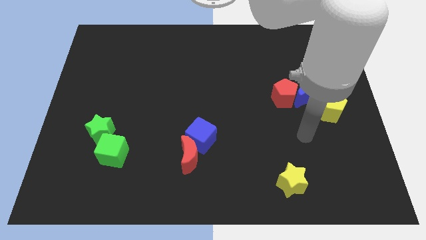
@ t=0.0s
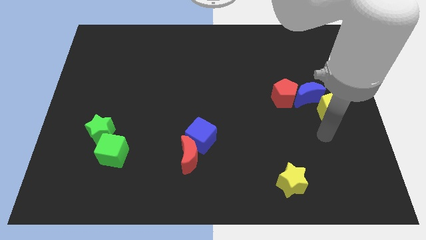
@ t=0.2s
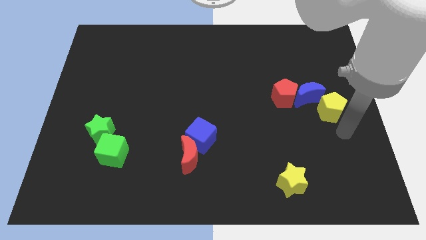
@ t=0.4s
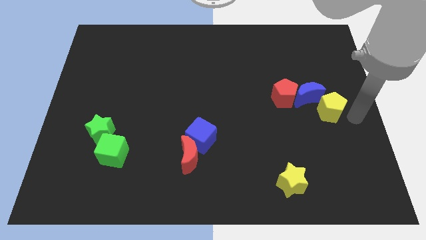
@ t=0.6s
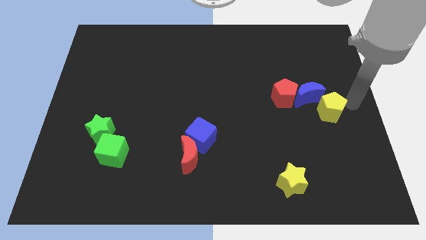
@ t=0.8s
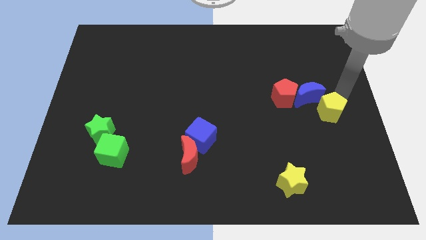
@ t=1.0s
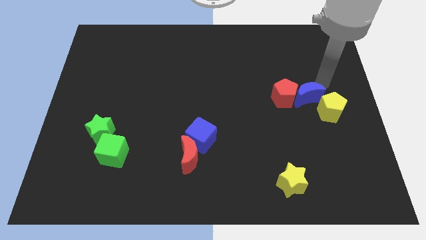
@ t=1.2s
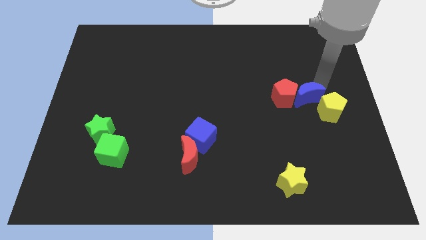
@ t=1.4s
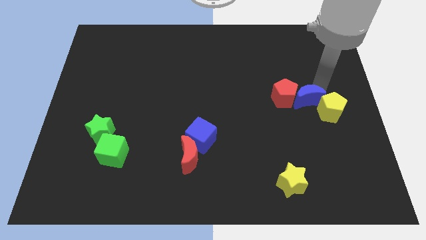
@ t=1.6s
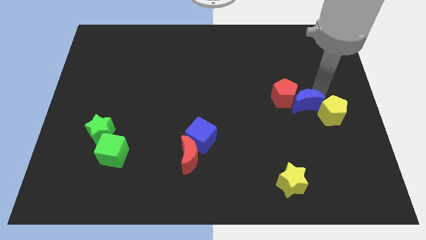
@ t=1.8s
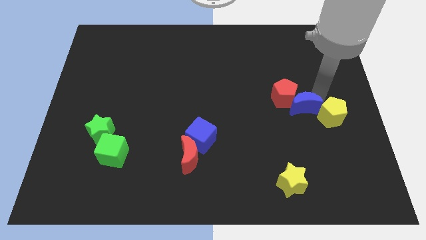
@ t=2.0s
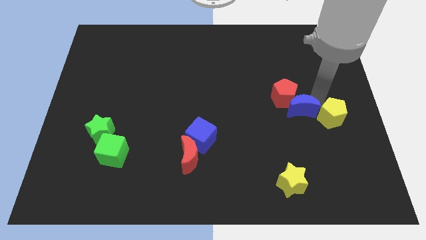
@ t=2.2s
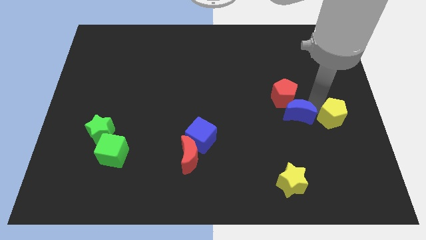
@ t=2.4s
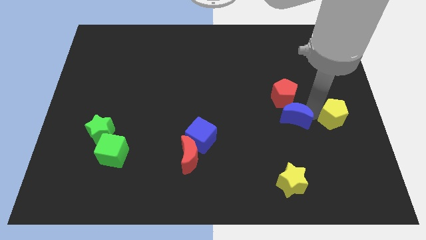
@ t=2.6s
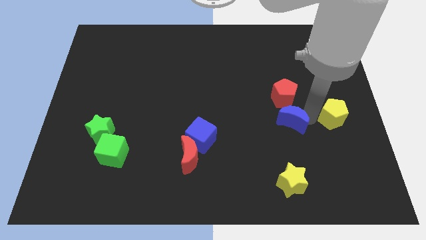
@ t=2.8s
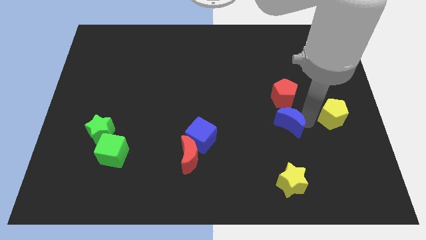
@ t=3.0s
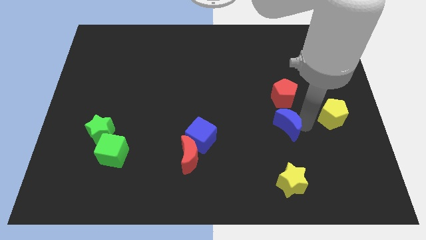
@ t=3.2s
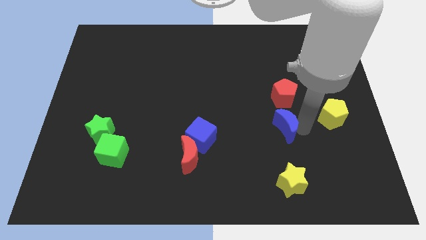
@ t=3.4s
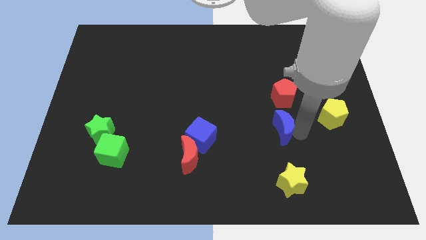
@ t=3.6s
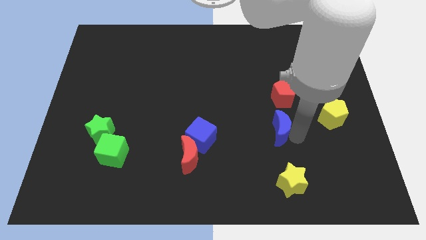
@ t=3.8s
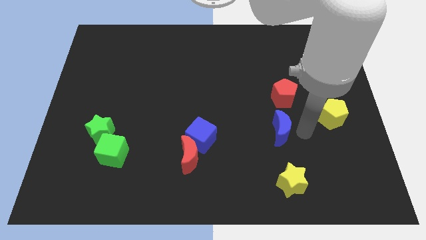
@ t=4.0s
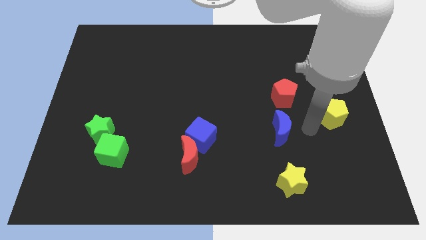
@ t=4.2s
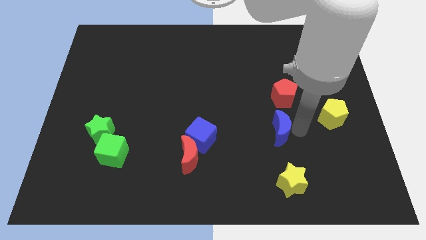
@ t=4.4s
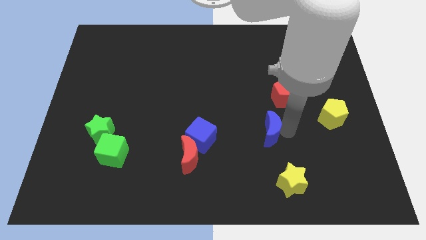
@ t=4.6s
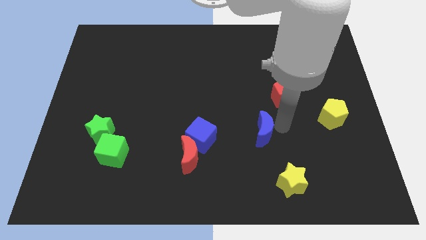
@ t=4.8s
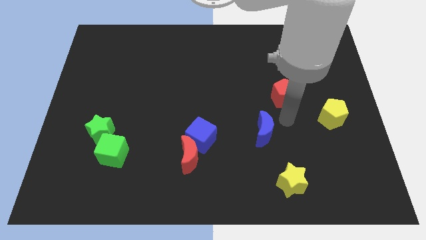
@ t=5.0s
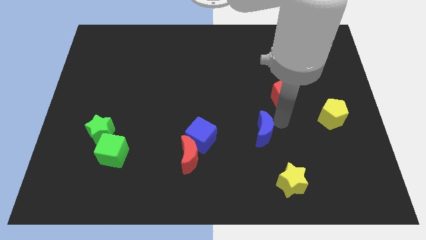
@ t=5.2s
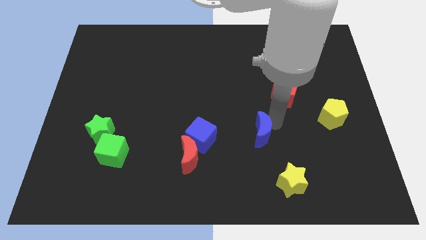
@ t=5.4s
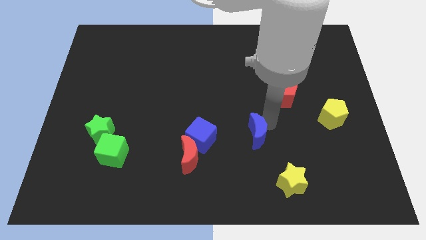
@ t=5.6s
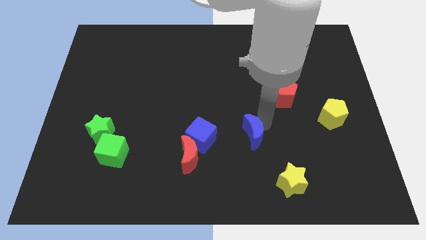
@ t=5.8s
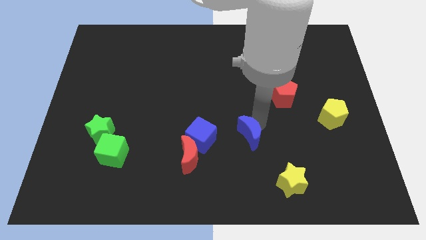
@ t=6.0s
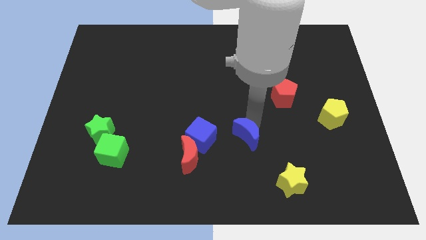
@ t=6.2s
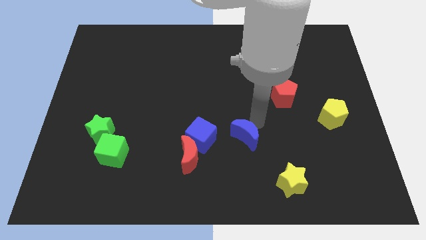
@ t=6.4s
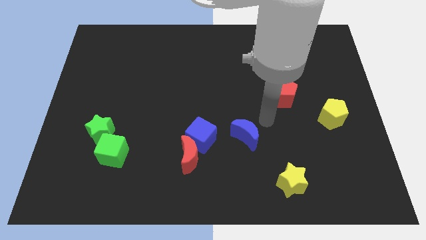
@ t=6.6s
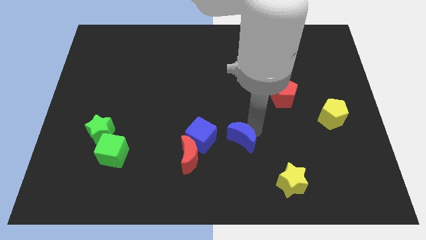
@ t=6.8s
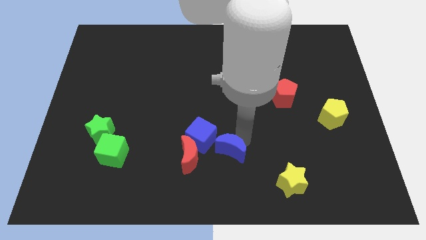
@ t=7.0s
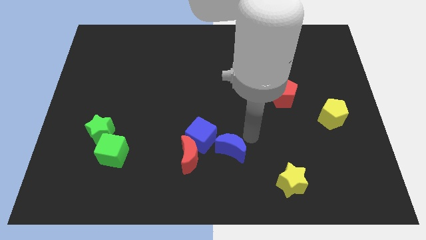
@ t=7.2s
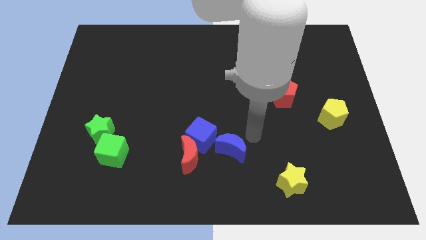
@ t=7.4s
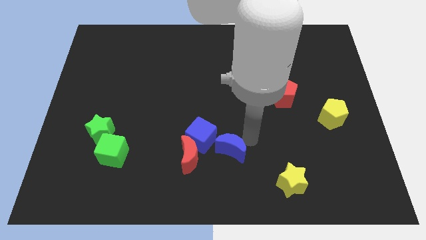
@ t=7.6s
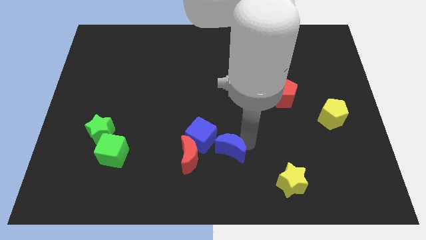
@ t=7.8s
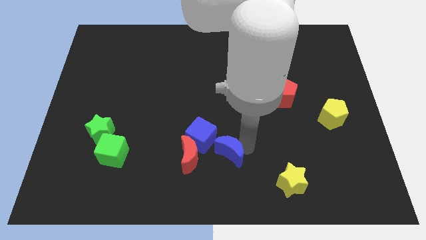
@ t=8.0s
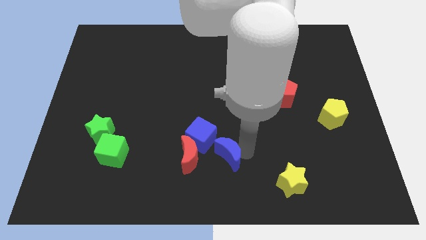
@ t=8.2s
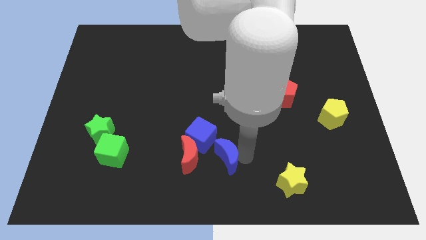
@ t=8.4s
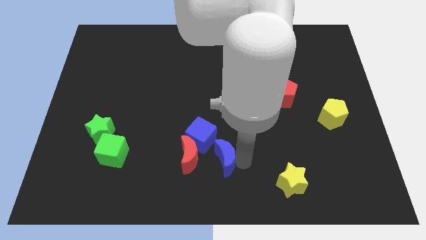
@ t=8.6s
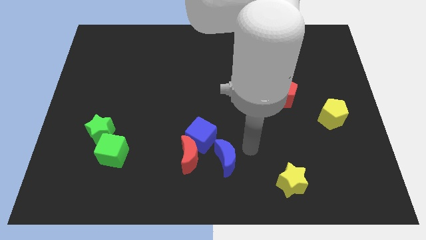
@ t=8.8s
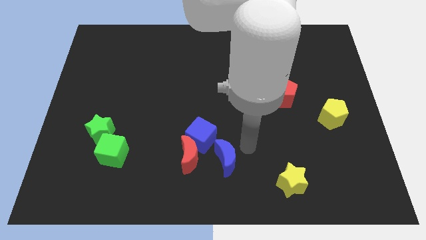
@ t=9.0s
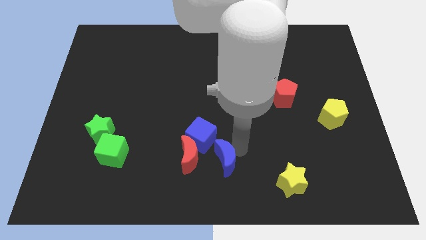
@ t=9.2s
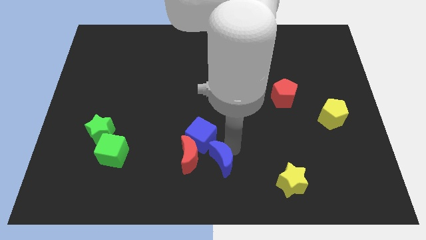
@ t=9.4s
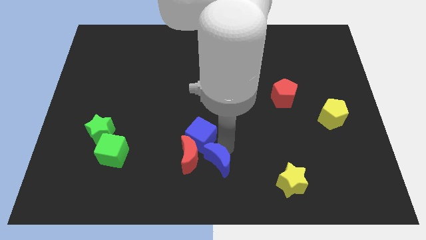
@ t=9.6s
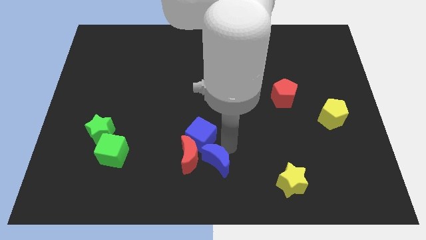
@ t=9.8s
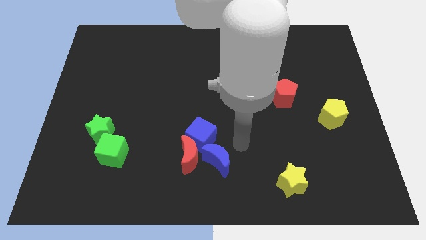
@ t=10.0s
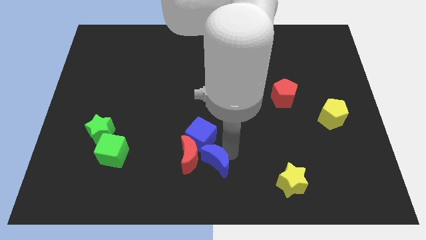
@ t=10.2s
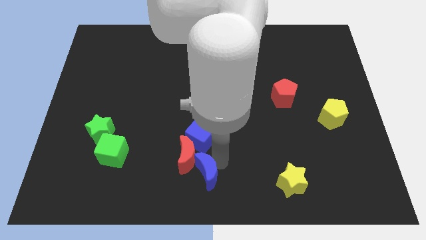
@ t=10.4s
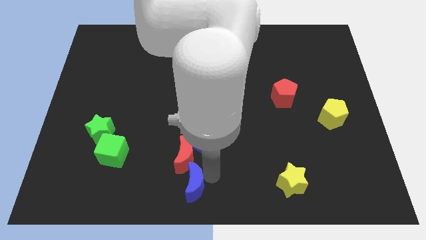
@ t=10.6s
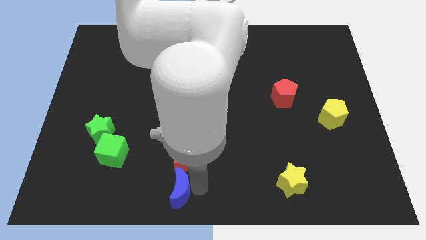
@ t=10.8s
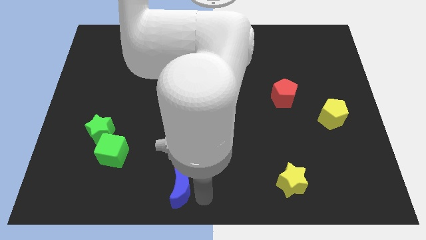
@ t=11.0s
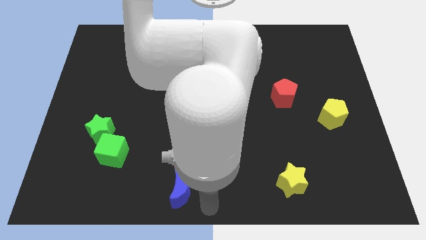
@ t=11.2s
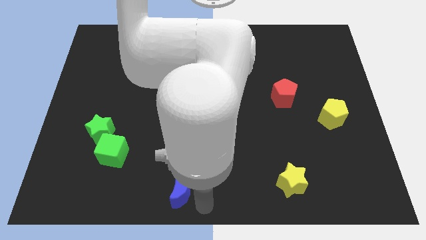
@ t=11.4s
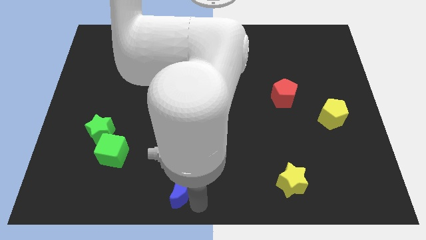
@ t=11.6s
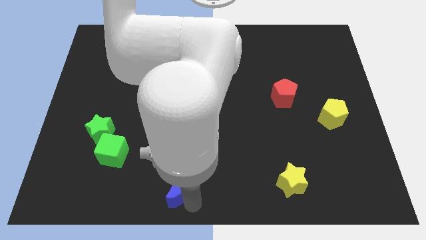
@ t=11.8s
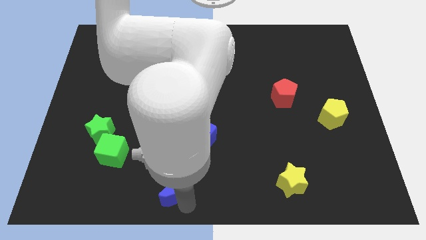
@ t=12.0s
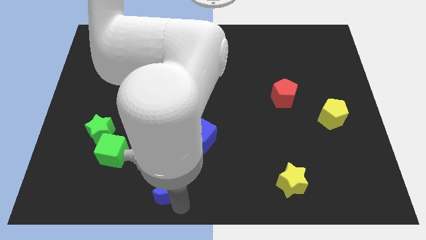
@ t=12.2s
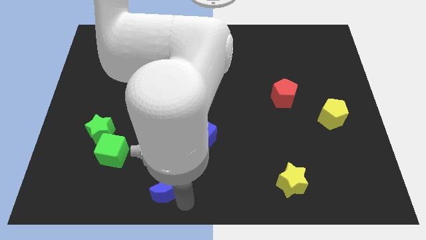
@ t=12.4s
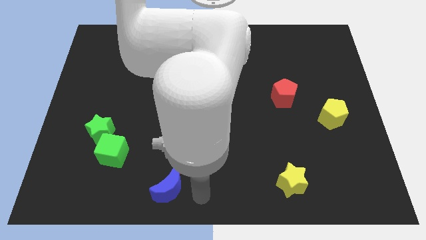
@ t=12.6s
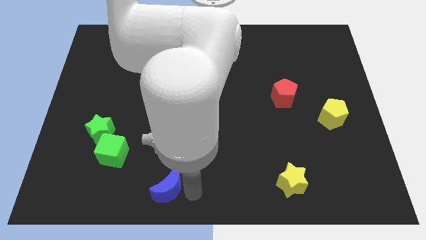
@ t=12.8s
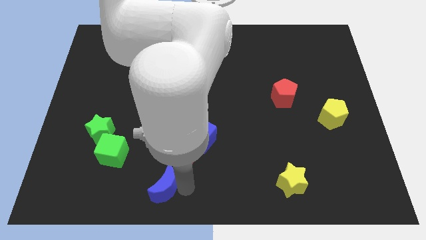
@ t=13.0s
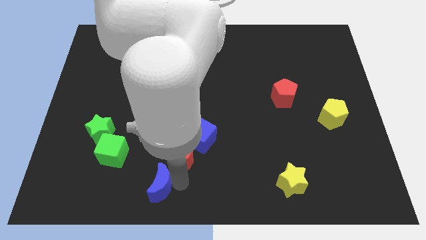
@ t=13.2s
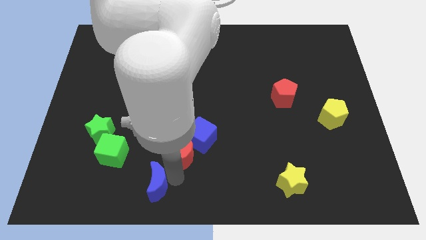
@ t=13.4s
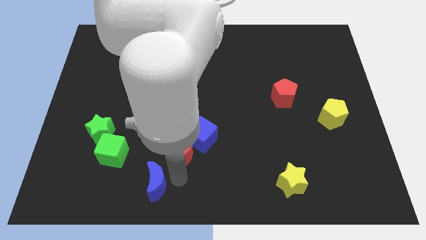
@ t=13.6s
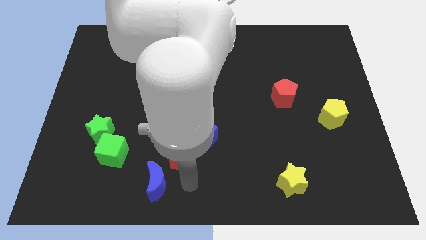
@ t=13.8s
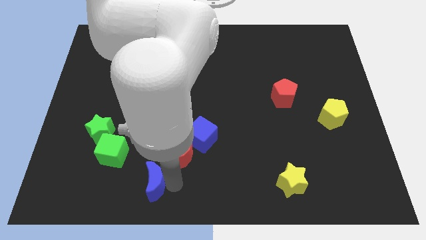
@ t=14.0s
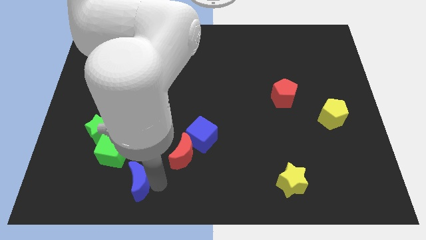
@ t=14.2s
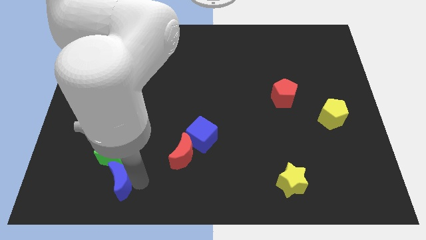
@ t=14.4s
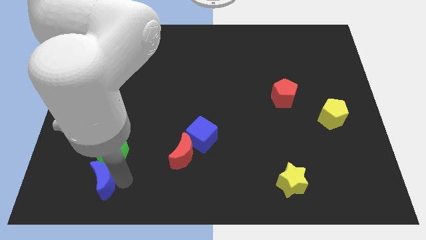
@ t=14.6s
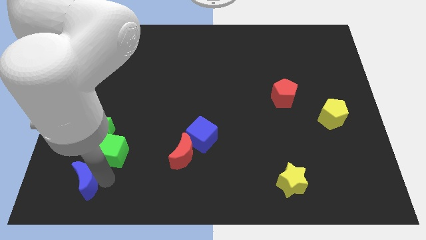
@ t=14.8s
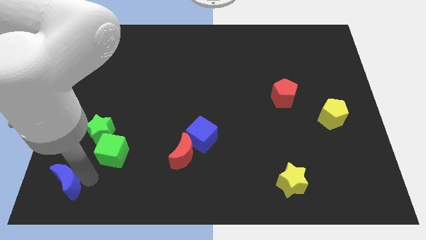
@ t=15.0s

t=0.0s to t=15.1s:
put the blue moon to the bottom left corner
